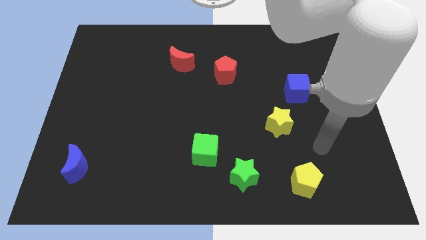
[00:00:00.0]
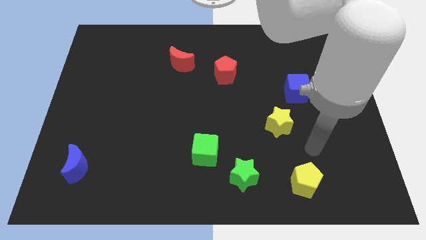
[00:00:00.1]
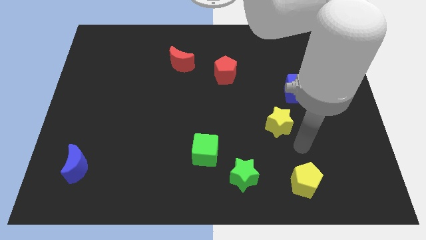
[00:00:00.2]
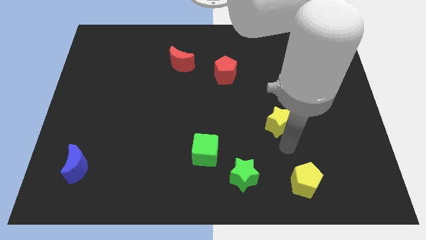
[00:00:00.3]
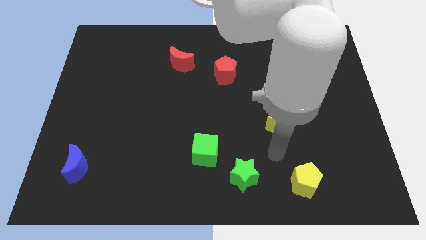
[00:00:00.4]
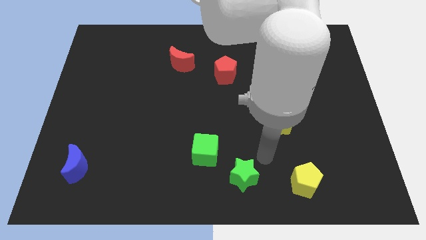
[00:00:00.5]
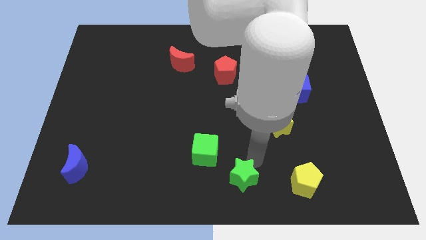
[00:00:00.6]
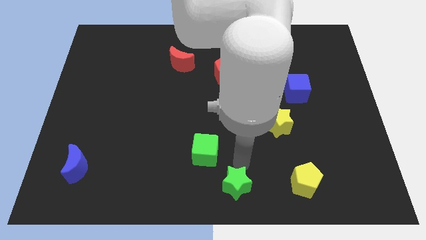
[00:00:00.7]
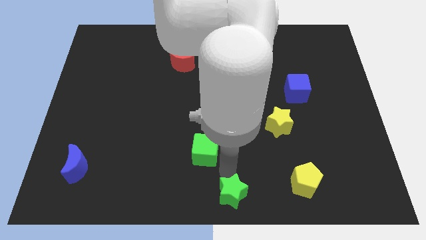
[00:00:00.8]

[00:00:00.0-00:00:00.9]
move the green cube away from the green star

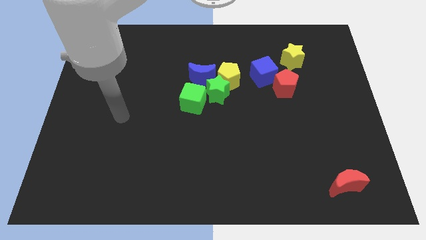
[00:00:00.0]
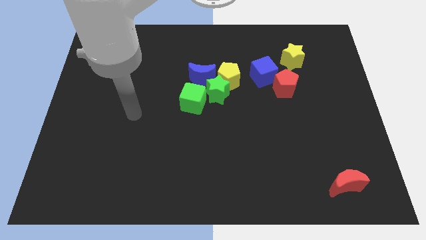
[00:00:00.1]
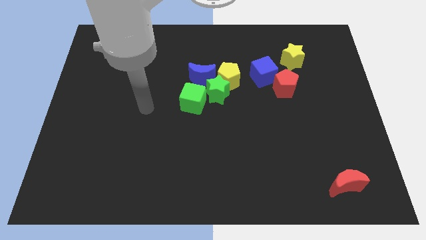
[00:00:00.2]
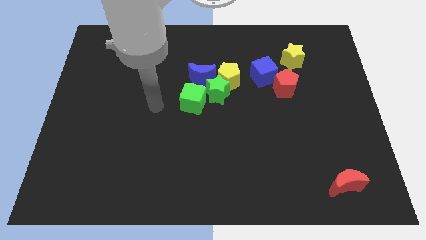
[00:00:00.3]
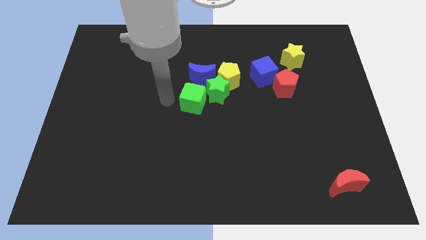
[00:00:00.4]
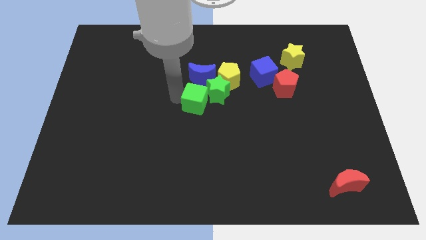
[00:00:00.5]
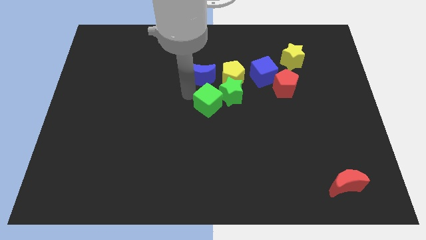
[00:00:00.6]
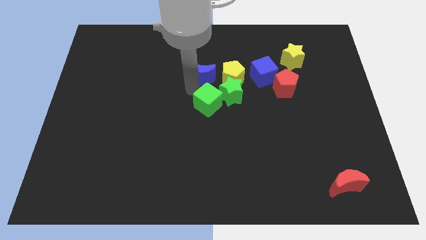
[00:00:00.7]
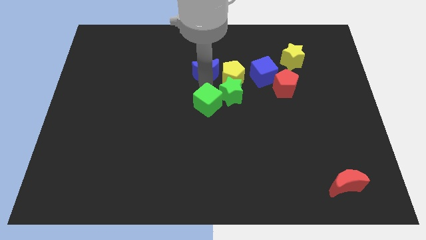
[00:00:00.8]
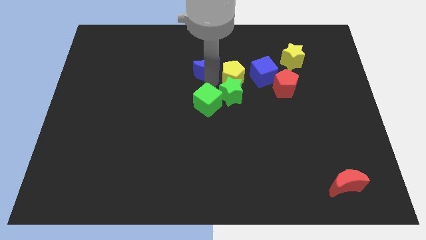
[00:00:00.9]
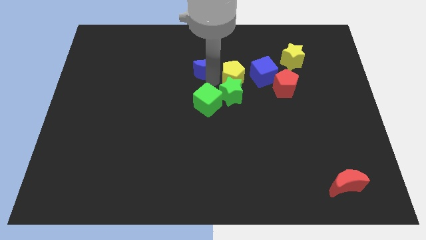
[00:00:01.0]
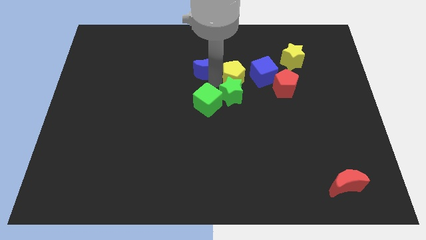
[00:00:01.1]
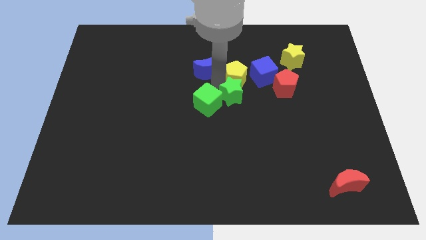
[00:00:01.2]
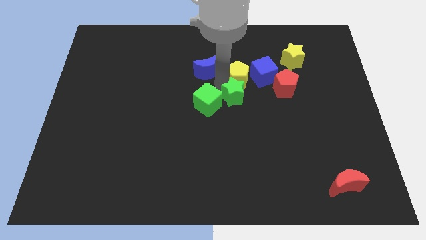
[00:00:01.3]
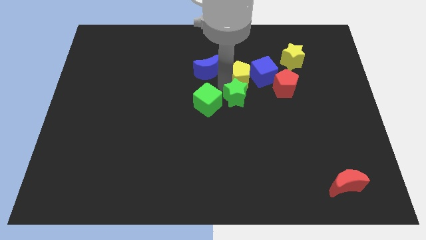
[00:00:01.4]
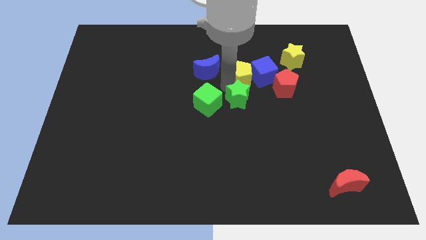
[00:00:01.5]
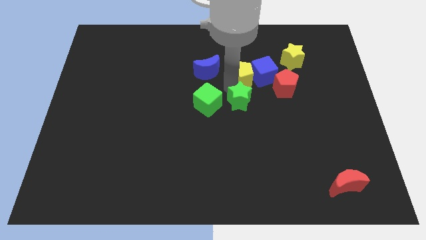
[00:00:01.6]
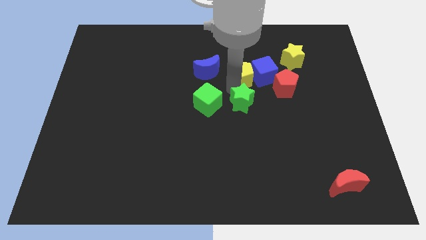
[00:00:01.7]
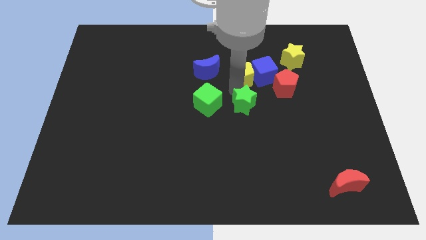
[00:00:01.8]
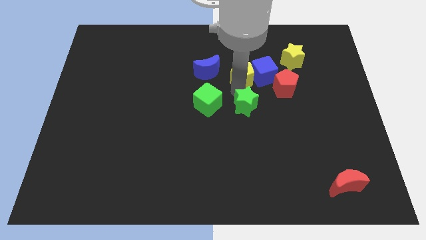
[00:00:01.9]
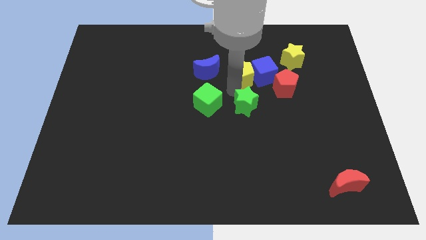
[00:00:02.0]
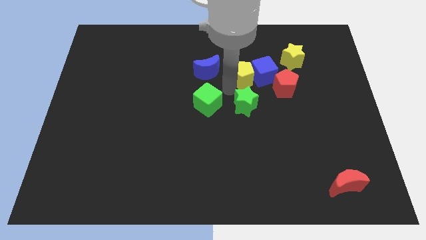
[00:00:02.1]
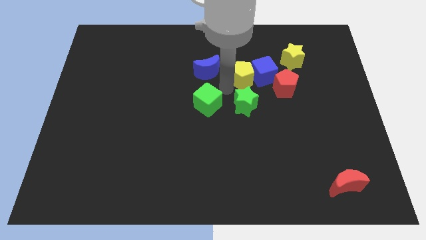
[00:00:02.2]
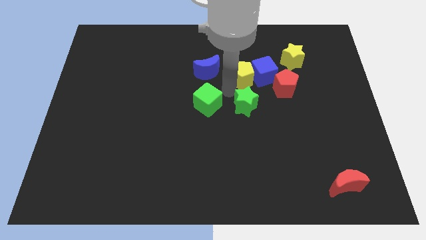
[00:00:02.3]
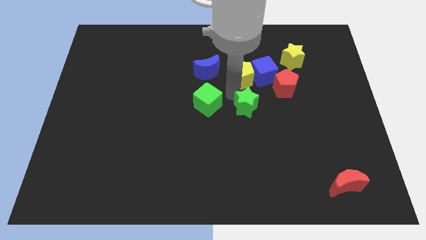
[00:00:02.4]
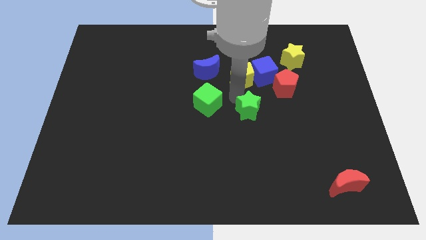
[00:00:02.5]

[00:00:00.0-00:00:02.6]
separate the green star from the group of blocks

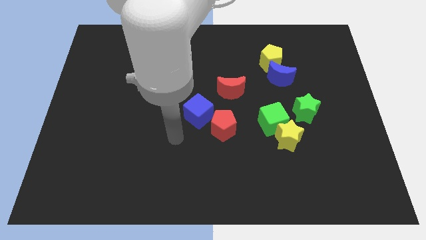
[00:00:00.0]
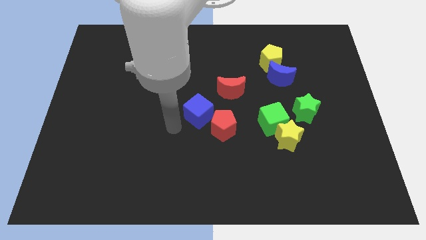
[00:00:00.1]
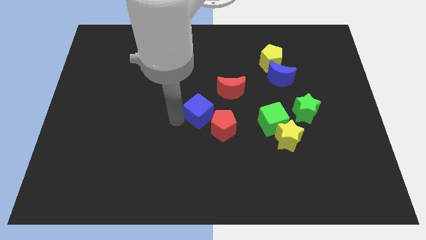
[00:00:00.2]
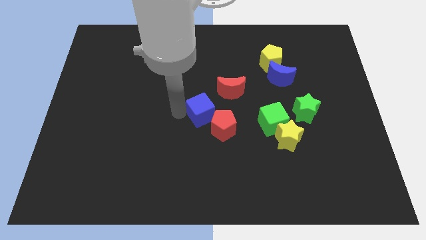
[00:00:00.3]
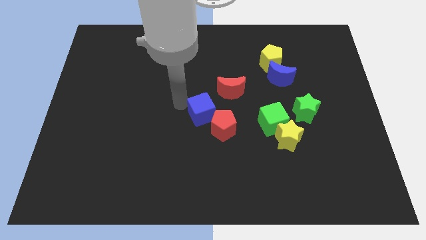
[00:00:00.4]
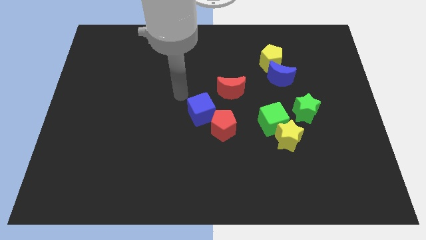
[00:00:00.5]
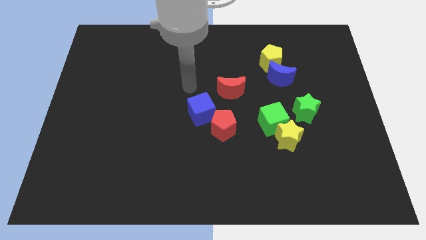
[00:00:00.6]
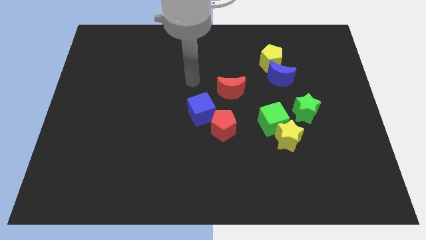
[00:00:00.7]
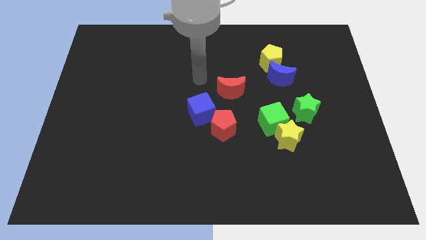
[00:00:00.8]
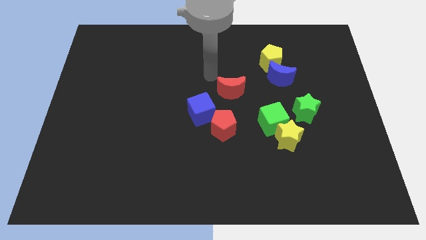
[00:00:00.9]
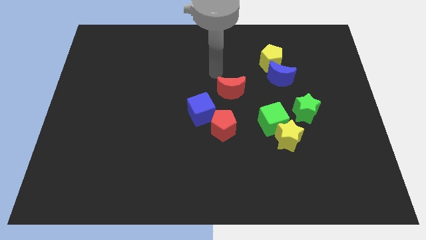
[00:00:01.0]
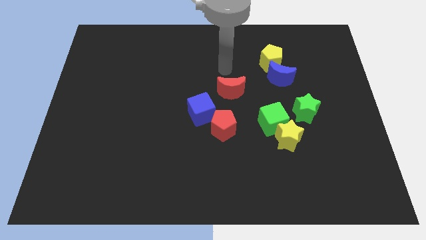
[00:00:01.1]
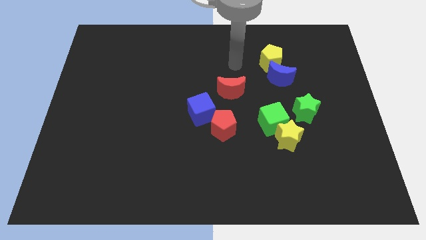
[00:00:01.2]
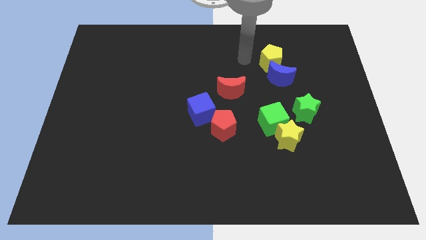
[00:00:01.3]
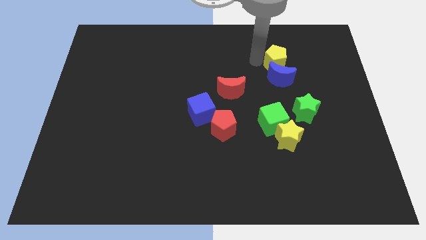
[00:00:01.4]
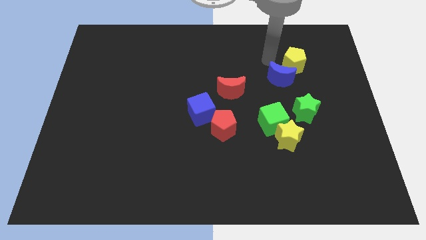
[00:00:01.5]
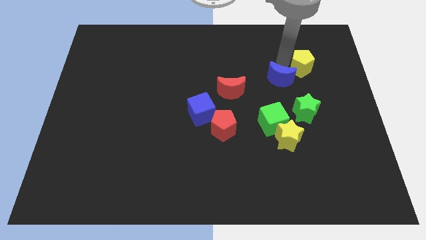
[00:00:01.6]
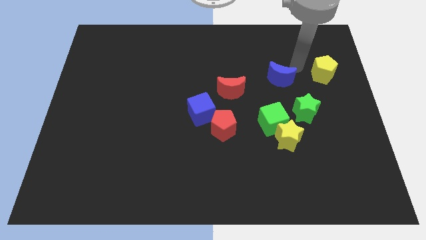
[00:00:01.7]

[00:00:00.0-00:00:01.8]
move the blue moon away from the yellow pentagon

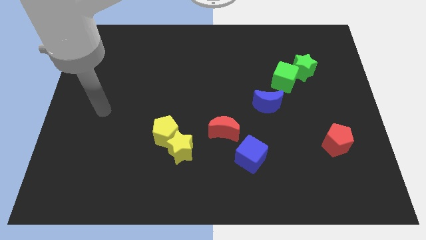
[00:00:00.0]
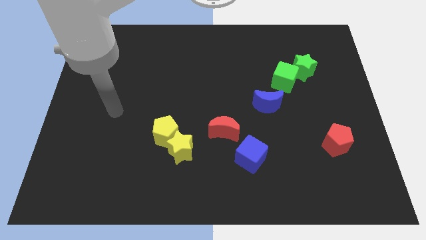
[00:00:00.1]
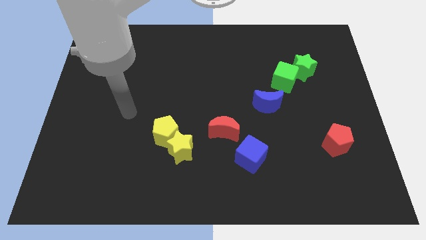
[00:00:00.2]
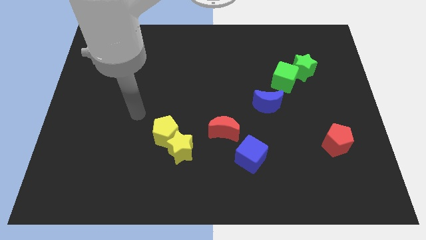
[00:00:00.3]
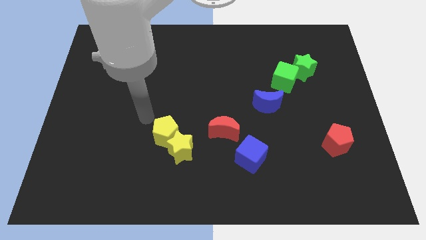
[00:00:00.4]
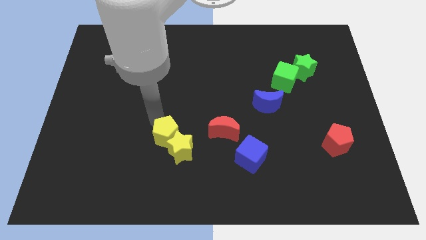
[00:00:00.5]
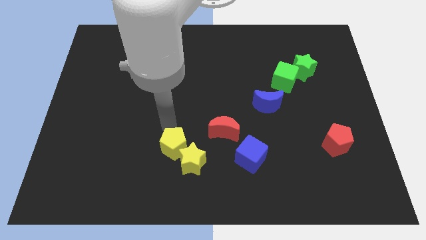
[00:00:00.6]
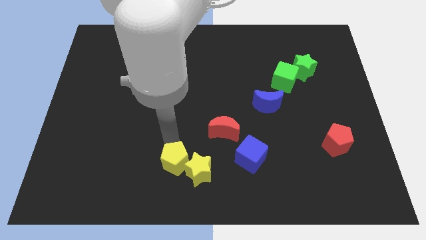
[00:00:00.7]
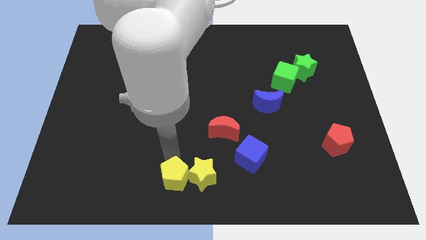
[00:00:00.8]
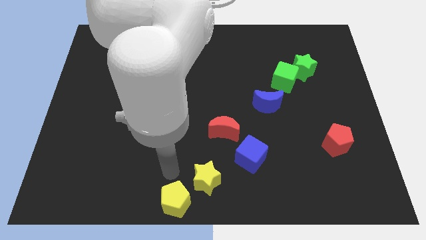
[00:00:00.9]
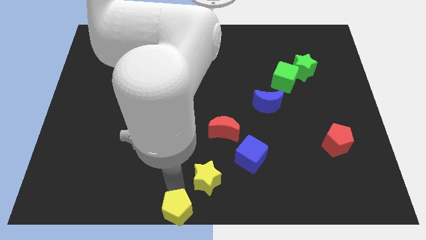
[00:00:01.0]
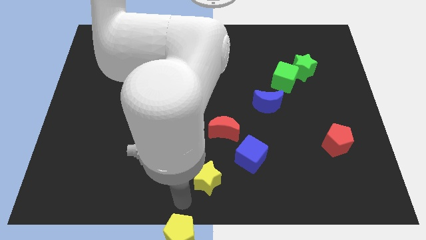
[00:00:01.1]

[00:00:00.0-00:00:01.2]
move the yellow star away from the yellow pentagon

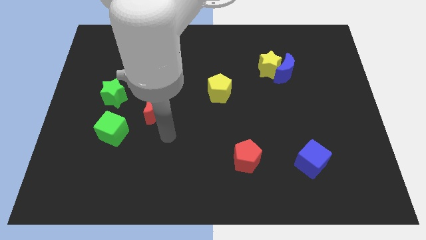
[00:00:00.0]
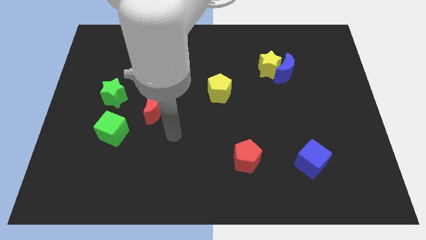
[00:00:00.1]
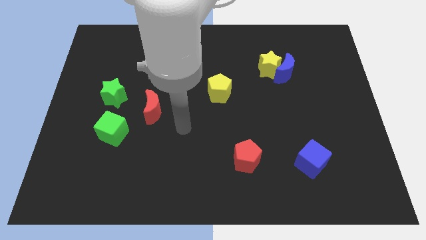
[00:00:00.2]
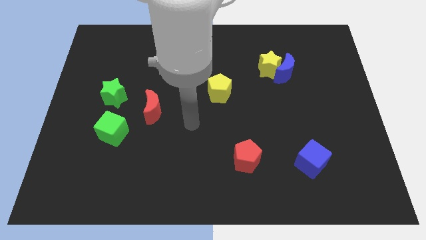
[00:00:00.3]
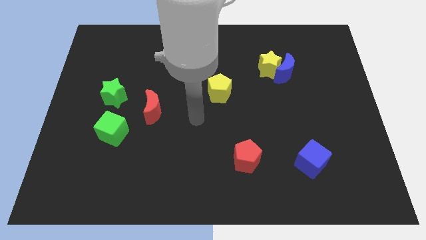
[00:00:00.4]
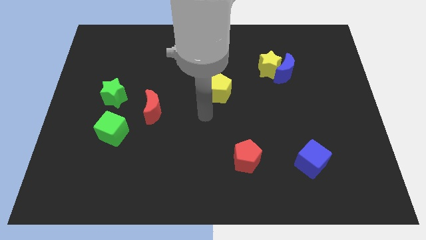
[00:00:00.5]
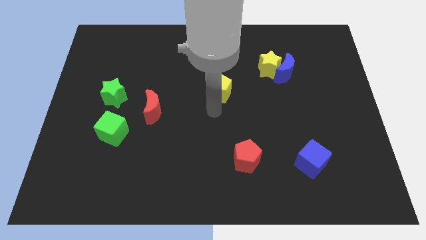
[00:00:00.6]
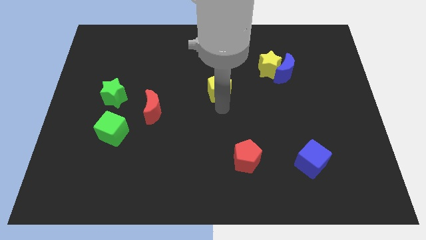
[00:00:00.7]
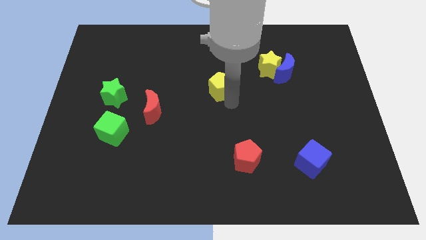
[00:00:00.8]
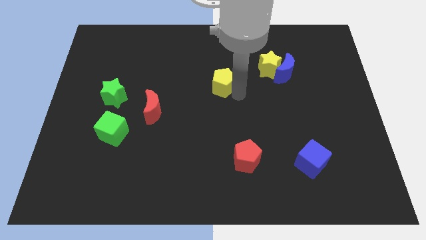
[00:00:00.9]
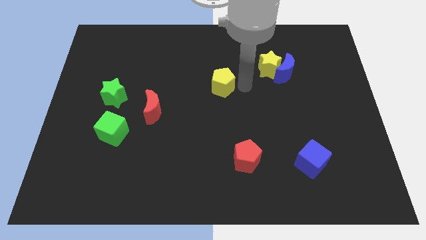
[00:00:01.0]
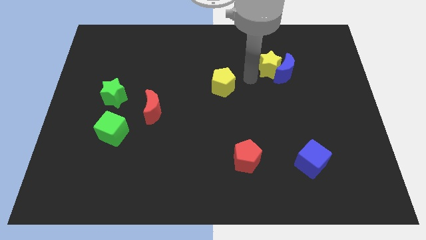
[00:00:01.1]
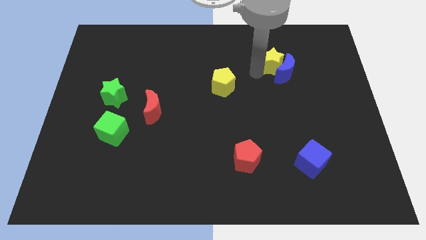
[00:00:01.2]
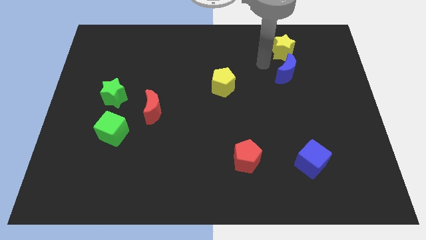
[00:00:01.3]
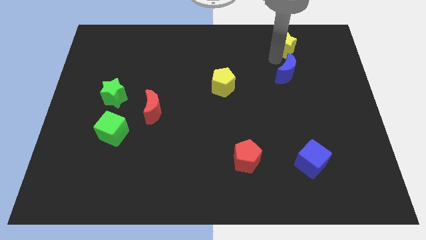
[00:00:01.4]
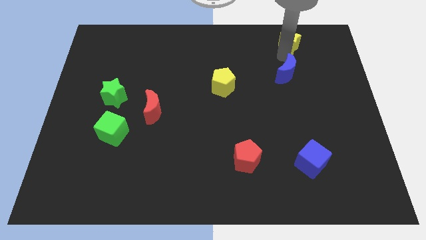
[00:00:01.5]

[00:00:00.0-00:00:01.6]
pull the blue moon apart from the yellow star

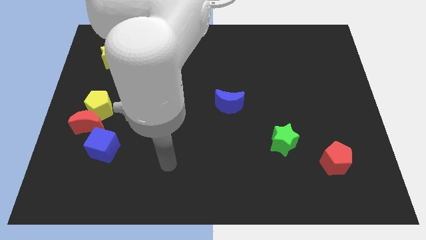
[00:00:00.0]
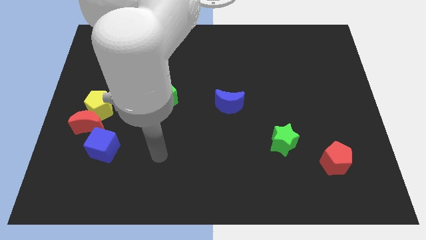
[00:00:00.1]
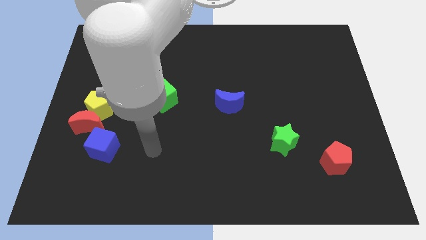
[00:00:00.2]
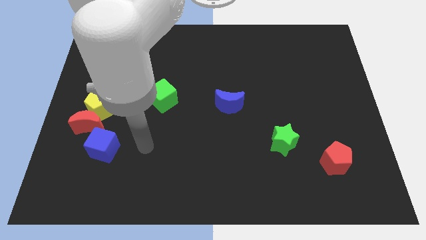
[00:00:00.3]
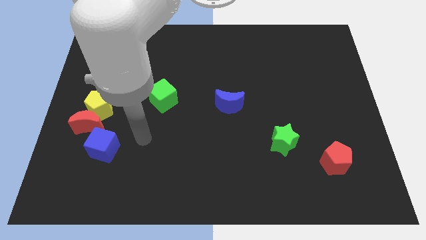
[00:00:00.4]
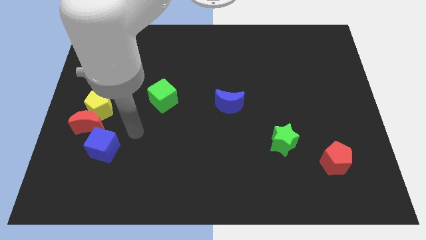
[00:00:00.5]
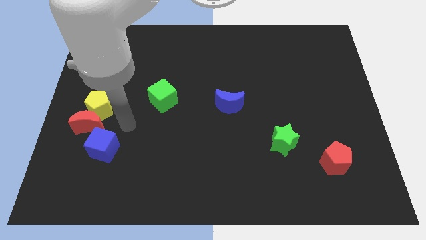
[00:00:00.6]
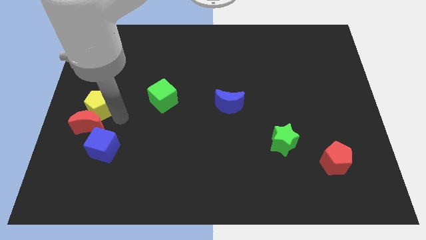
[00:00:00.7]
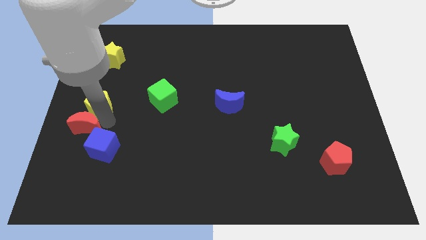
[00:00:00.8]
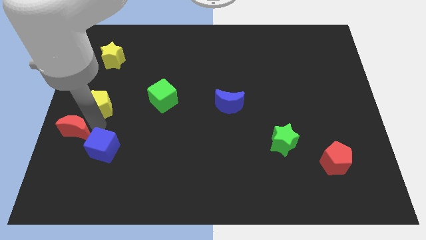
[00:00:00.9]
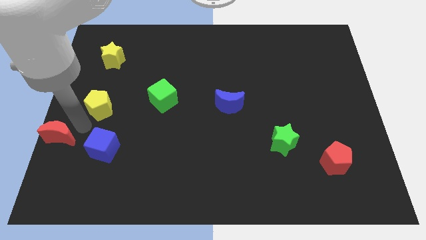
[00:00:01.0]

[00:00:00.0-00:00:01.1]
separate the yellow pentagon from the red moon
